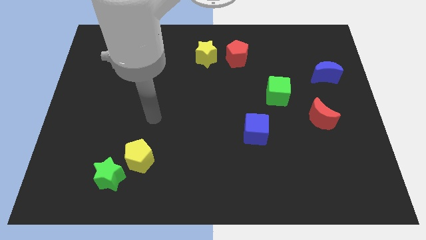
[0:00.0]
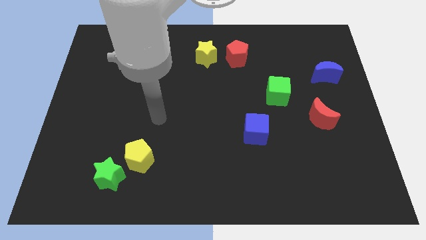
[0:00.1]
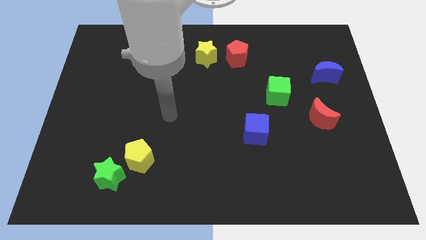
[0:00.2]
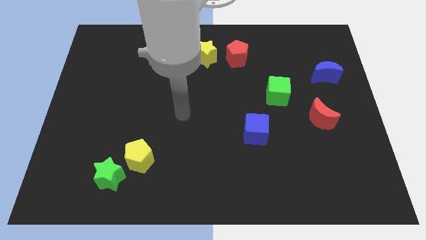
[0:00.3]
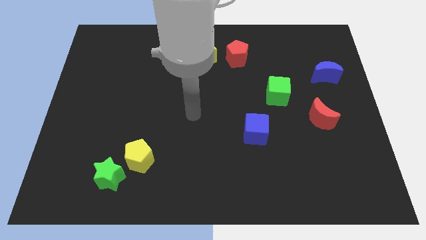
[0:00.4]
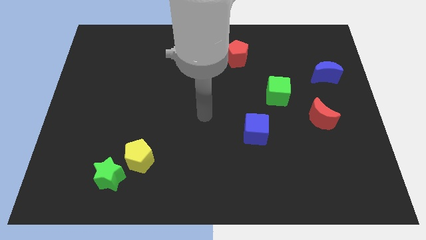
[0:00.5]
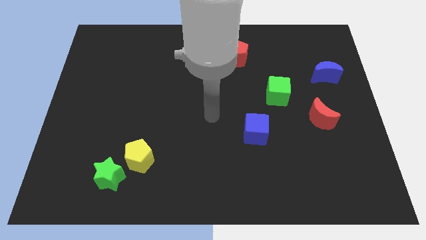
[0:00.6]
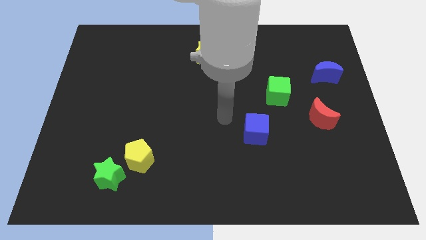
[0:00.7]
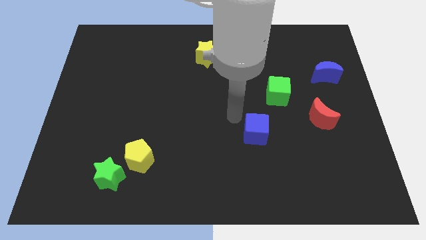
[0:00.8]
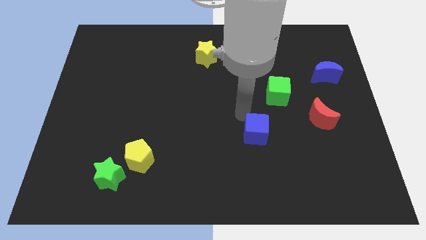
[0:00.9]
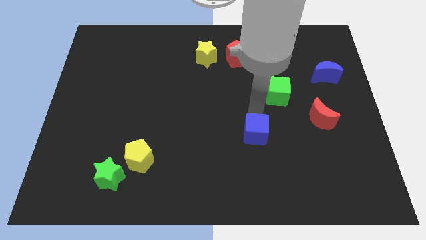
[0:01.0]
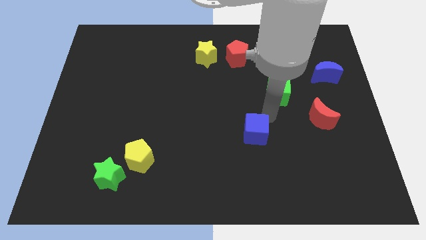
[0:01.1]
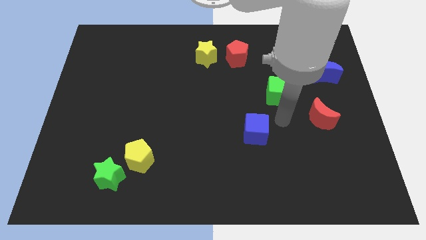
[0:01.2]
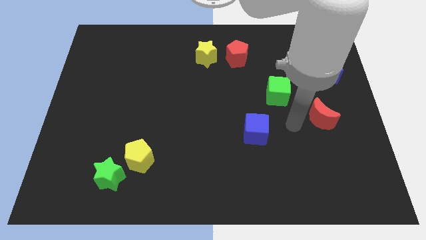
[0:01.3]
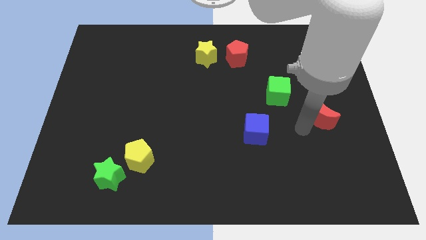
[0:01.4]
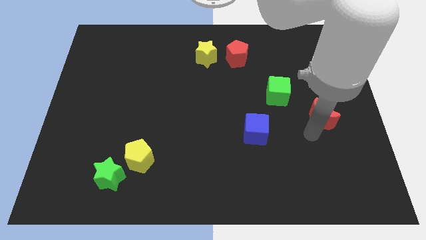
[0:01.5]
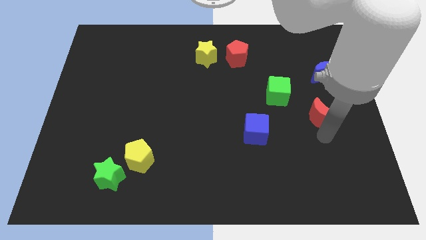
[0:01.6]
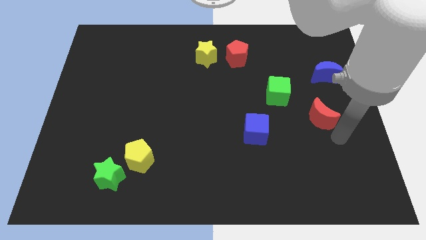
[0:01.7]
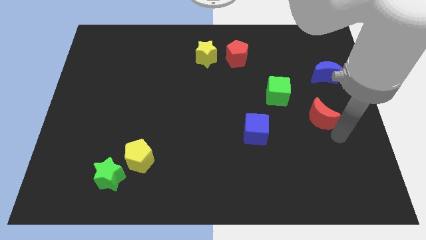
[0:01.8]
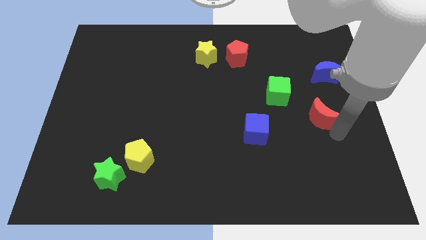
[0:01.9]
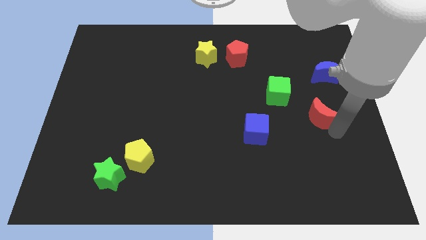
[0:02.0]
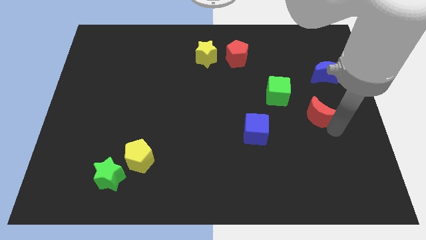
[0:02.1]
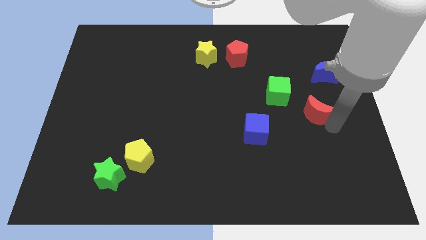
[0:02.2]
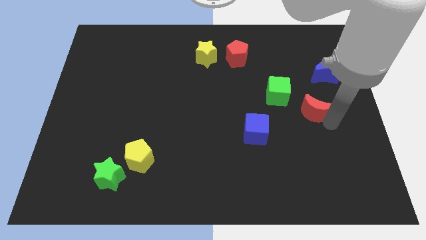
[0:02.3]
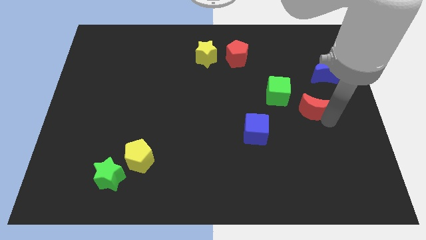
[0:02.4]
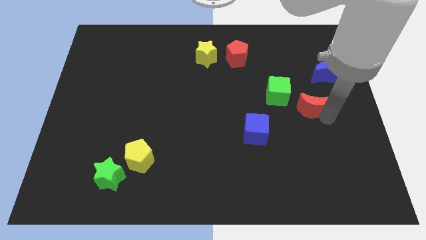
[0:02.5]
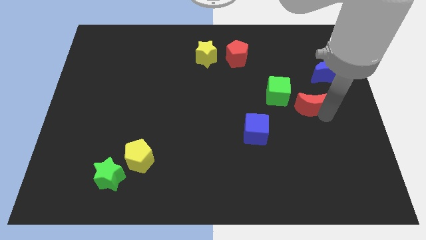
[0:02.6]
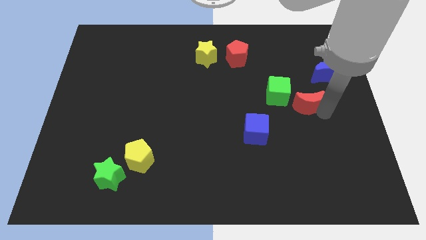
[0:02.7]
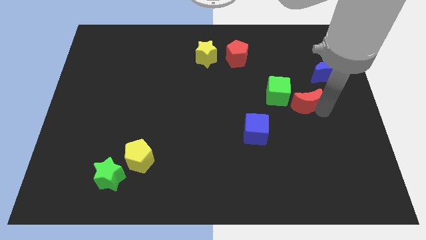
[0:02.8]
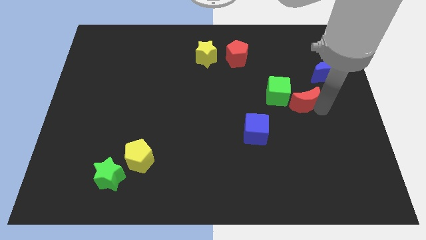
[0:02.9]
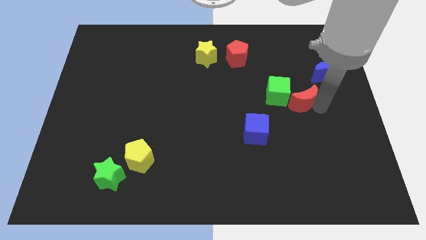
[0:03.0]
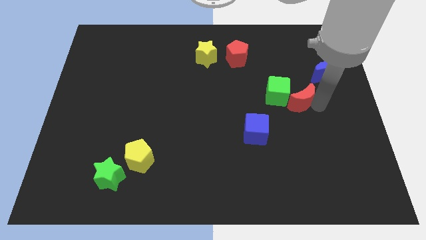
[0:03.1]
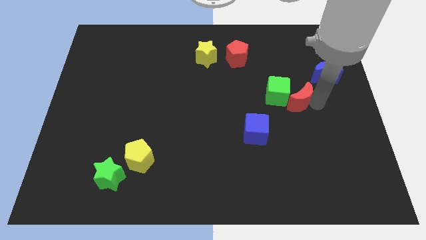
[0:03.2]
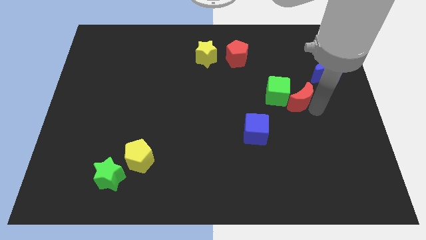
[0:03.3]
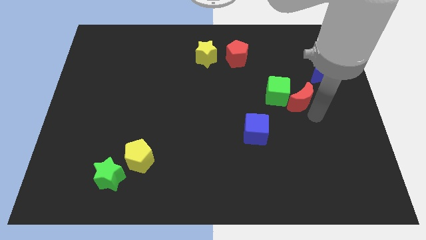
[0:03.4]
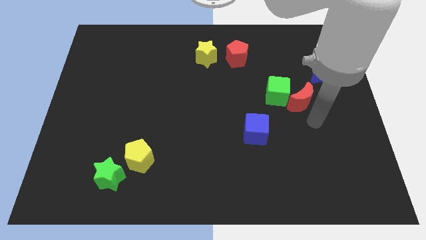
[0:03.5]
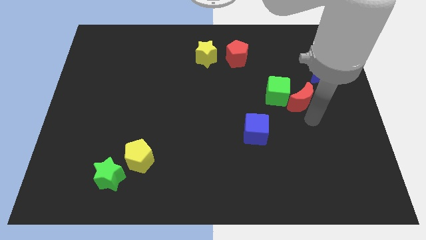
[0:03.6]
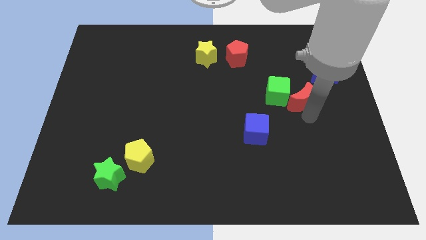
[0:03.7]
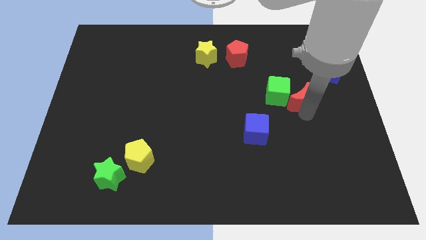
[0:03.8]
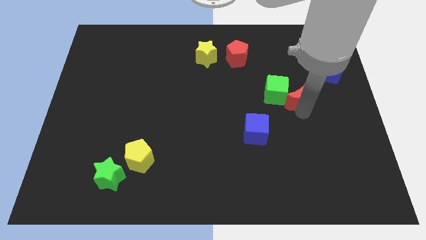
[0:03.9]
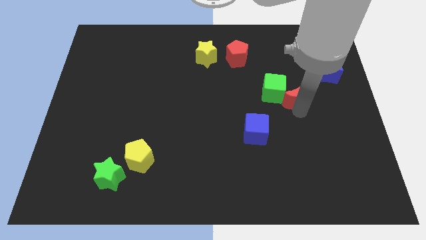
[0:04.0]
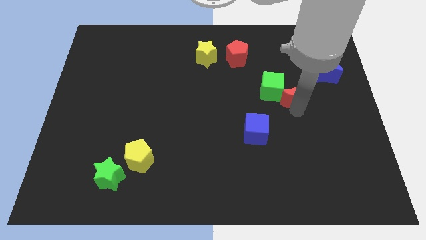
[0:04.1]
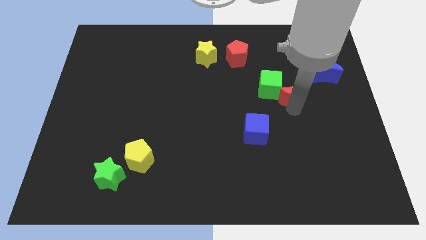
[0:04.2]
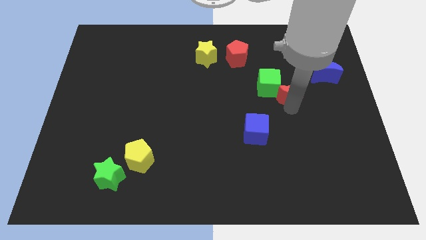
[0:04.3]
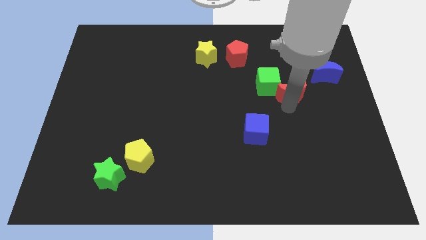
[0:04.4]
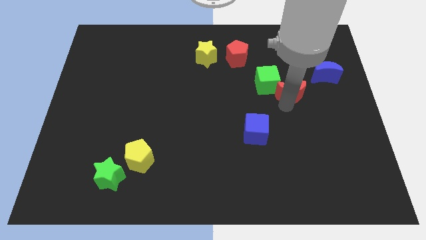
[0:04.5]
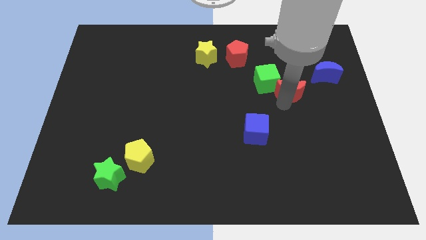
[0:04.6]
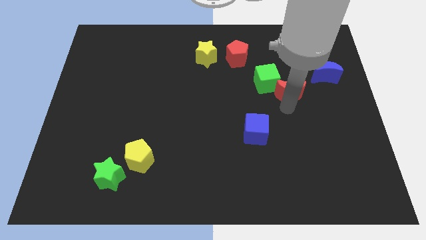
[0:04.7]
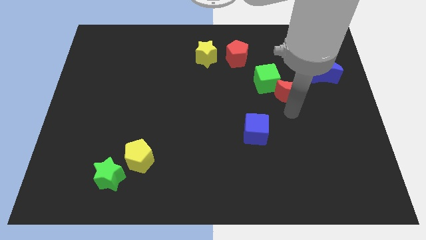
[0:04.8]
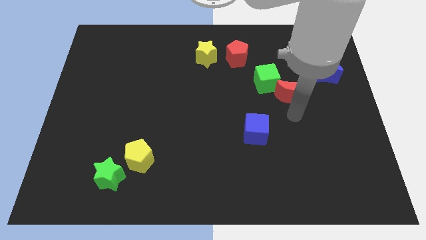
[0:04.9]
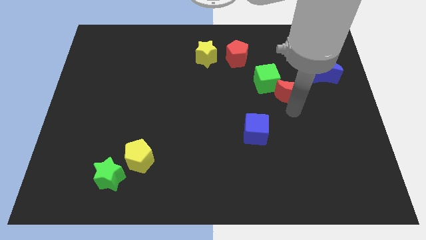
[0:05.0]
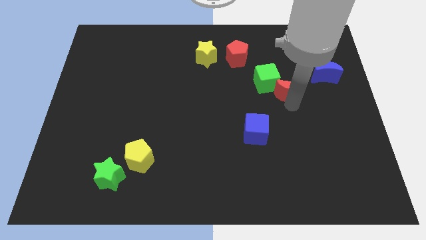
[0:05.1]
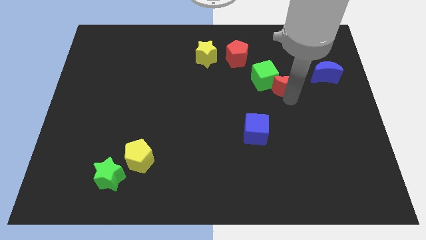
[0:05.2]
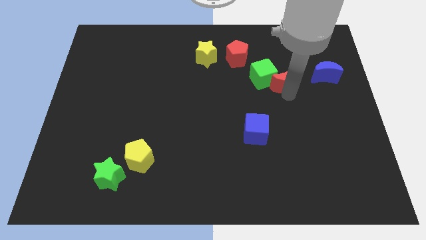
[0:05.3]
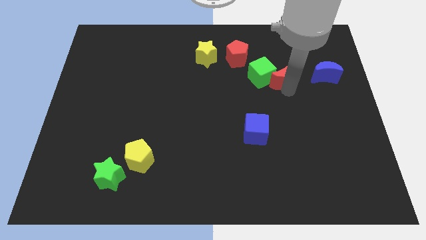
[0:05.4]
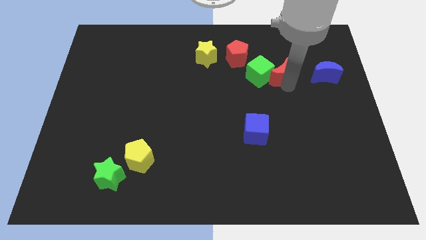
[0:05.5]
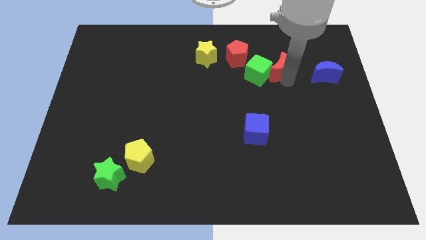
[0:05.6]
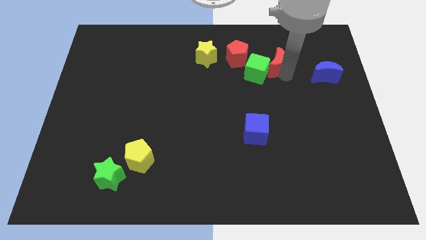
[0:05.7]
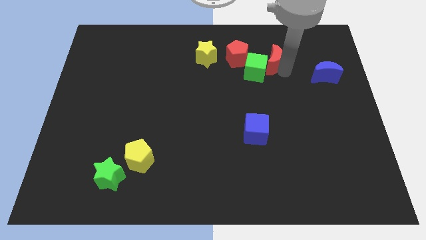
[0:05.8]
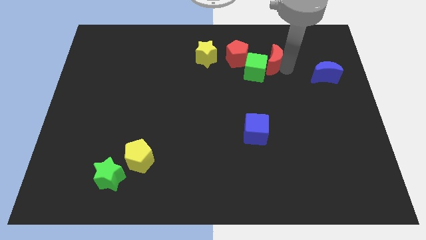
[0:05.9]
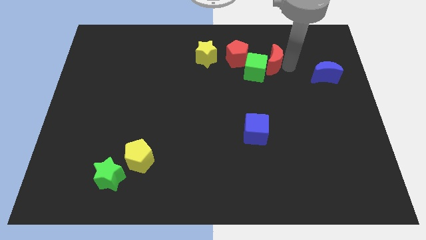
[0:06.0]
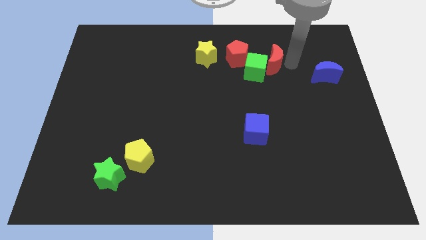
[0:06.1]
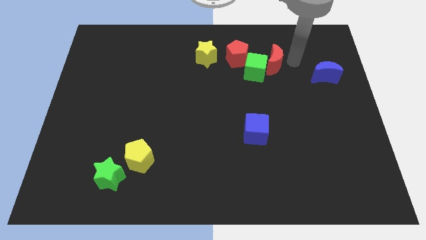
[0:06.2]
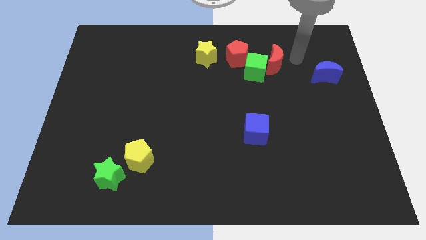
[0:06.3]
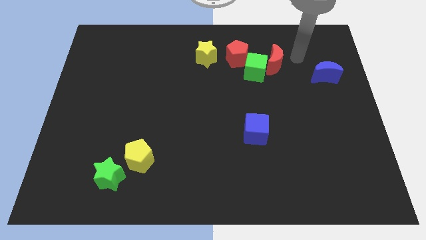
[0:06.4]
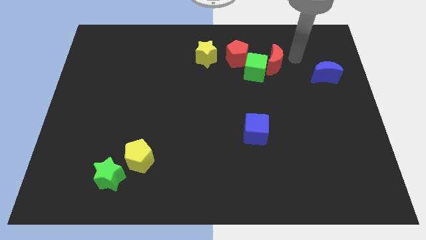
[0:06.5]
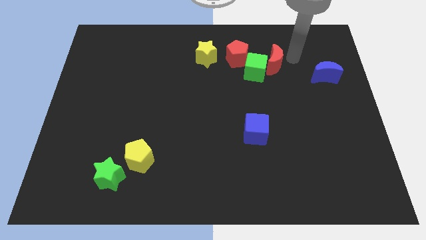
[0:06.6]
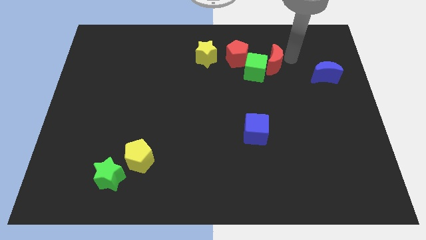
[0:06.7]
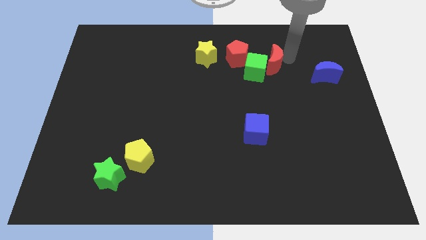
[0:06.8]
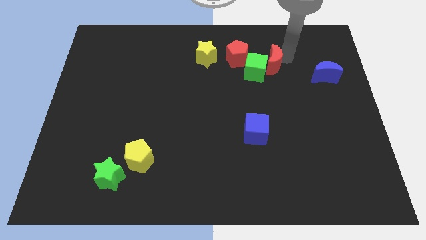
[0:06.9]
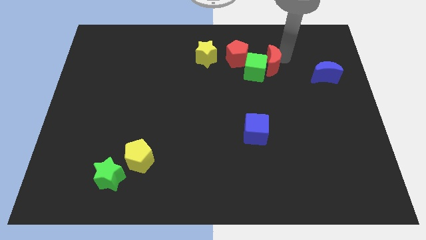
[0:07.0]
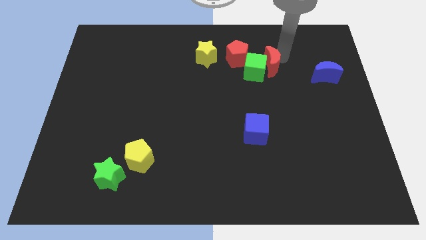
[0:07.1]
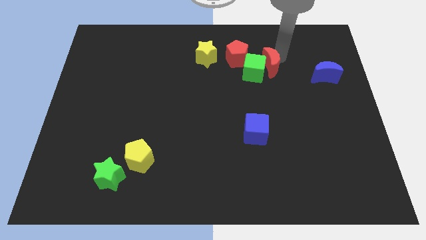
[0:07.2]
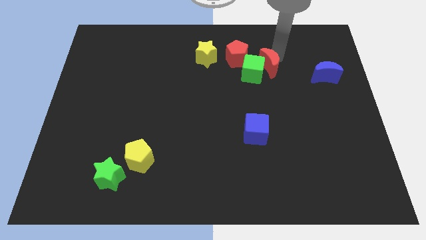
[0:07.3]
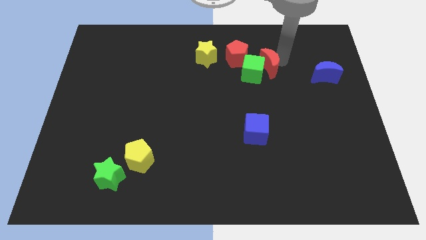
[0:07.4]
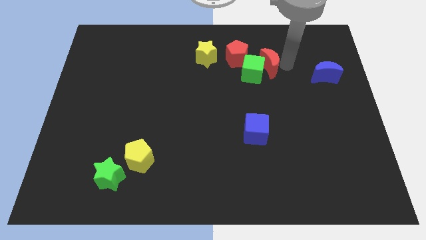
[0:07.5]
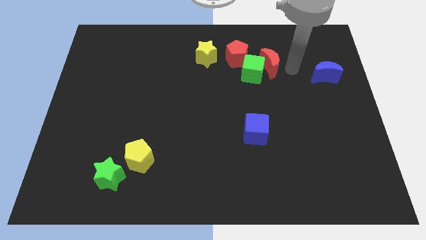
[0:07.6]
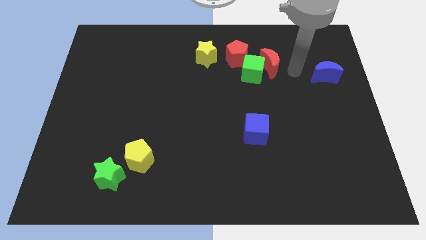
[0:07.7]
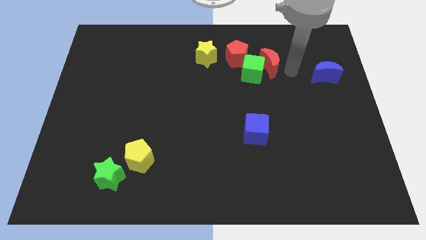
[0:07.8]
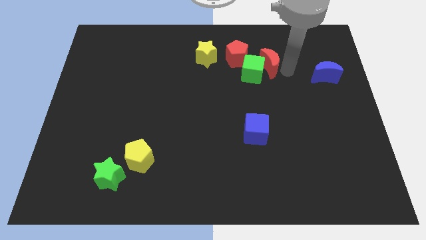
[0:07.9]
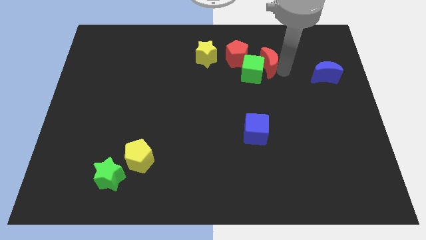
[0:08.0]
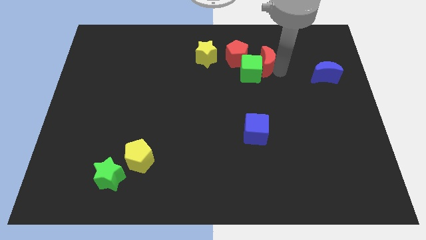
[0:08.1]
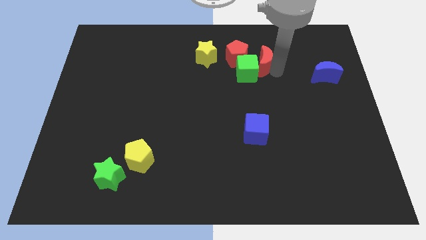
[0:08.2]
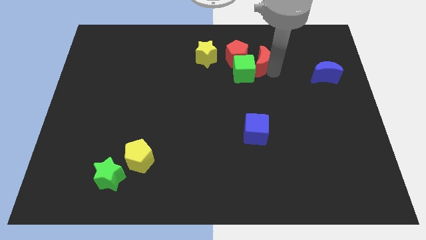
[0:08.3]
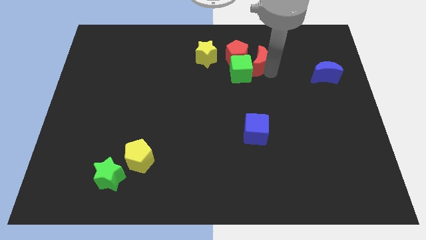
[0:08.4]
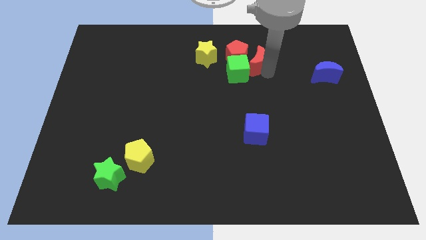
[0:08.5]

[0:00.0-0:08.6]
put the red moon close to the red pentagon
